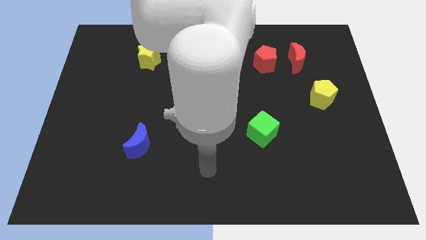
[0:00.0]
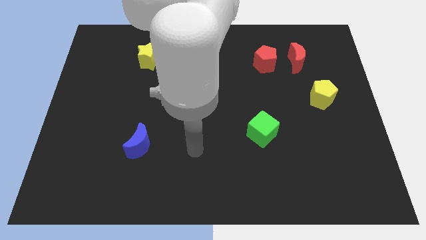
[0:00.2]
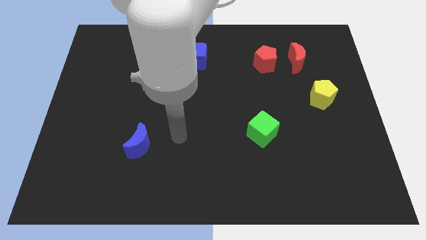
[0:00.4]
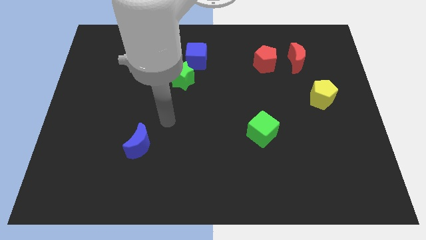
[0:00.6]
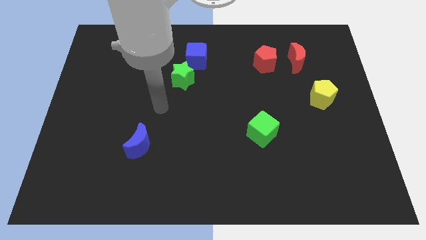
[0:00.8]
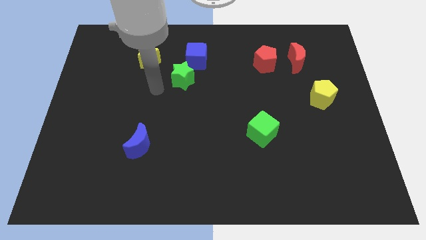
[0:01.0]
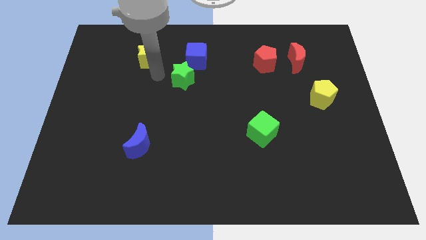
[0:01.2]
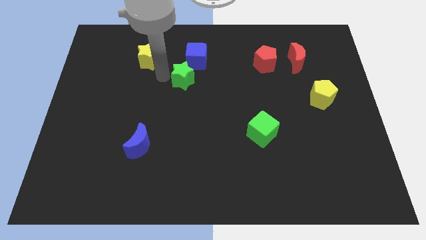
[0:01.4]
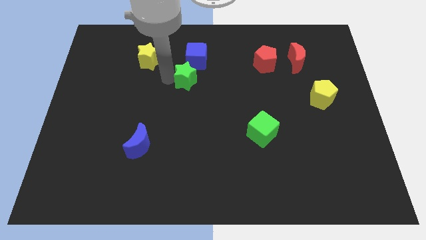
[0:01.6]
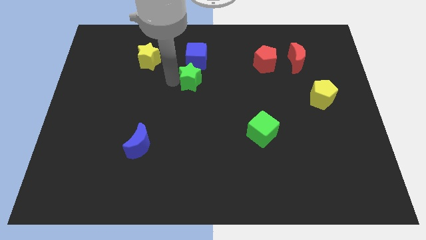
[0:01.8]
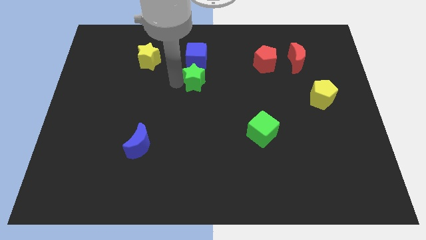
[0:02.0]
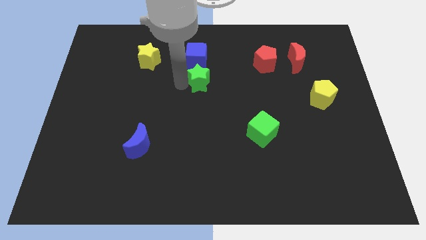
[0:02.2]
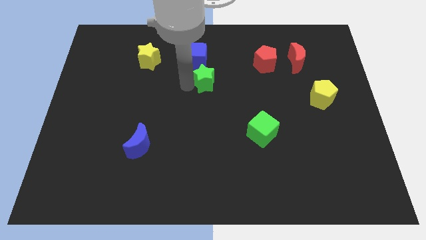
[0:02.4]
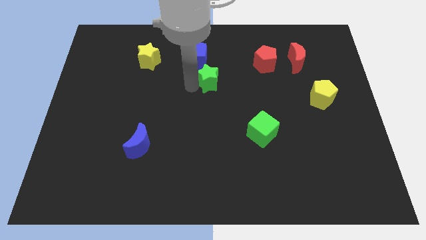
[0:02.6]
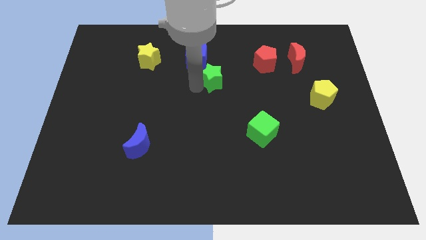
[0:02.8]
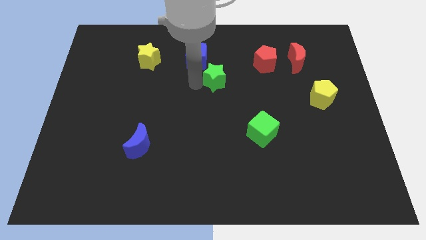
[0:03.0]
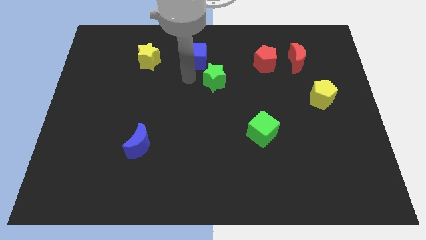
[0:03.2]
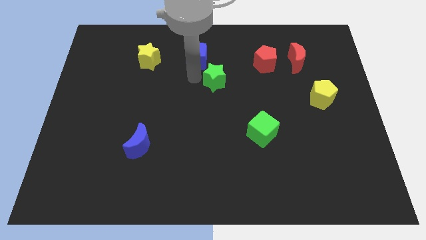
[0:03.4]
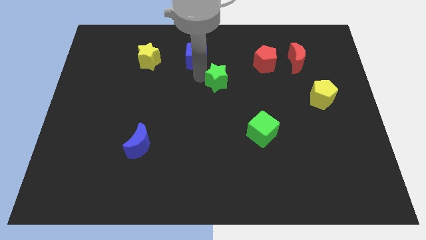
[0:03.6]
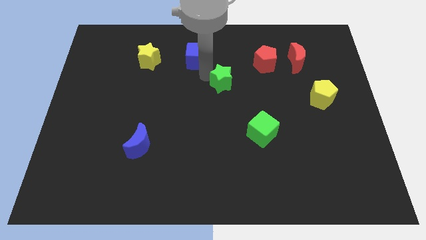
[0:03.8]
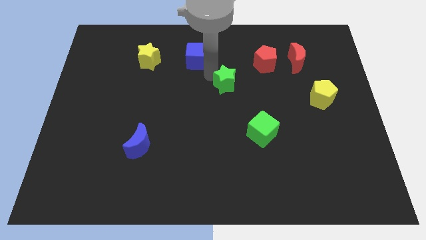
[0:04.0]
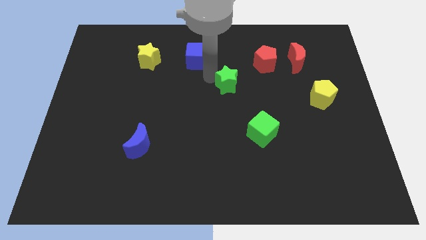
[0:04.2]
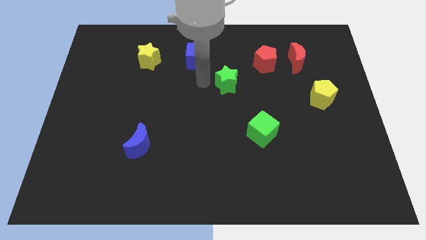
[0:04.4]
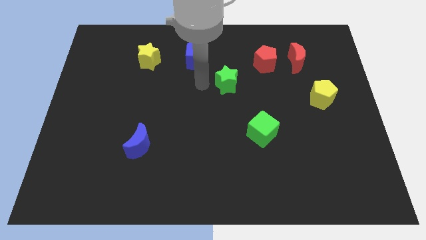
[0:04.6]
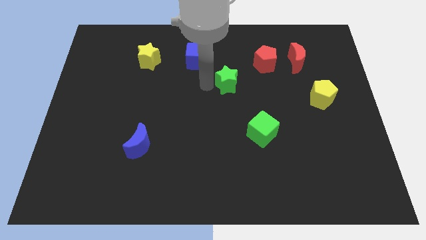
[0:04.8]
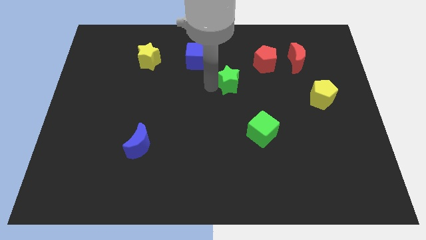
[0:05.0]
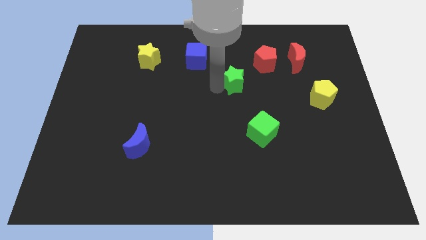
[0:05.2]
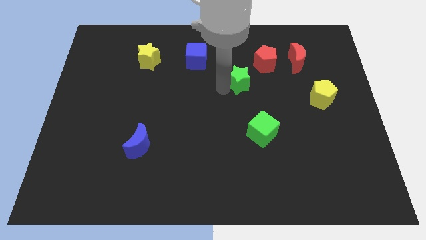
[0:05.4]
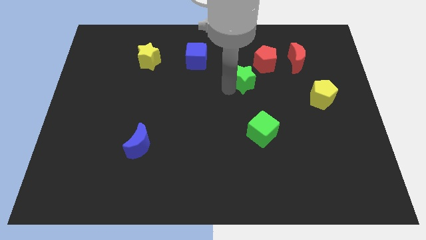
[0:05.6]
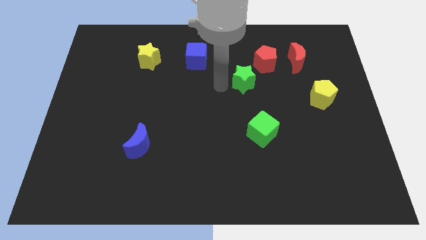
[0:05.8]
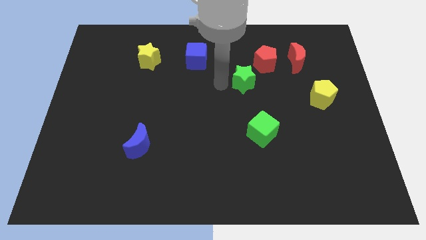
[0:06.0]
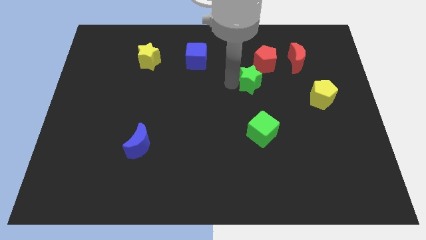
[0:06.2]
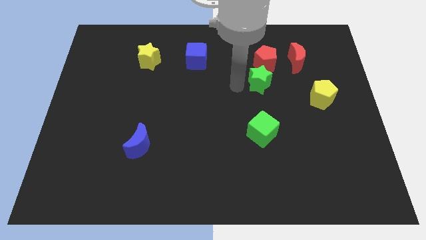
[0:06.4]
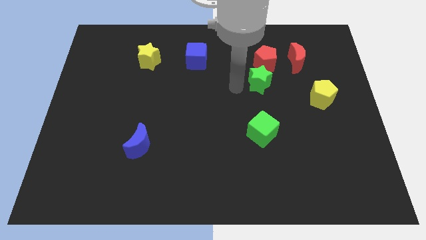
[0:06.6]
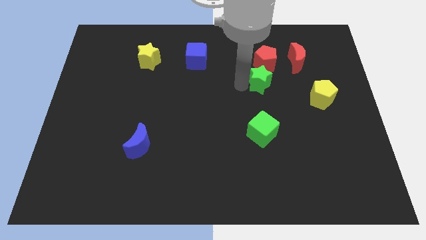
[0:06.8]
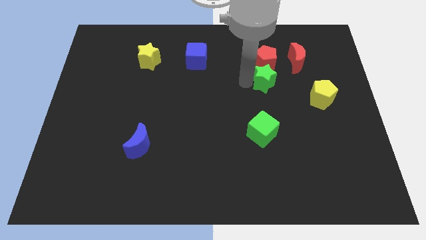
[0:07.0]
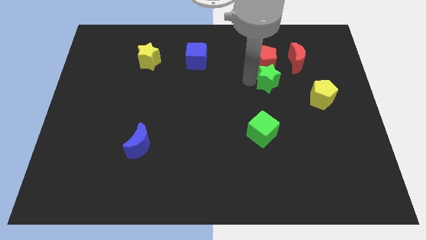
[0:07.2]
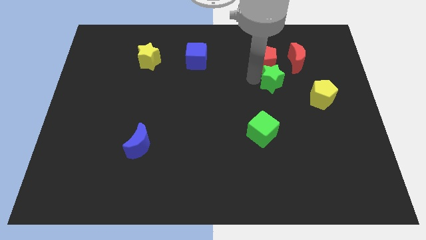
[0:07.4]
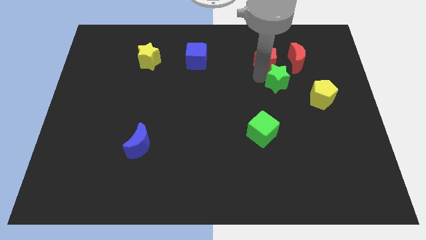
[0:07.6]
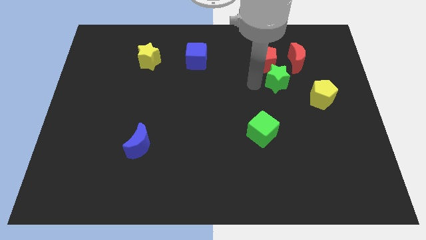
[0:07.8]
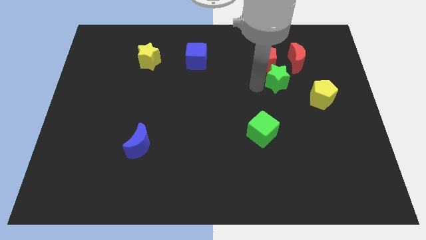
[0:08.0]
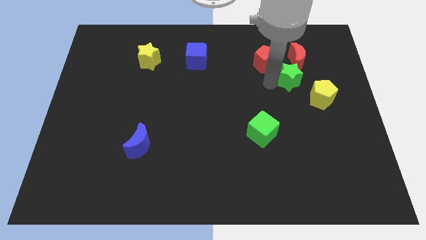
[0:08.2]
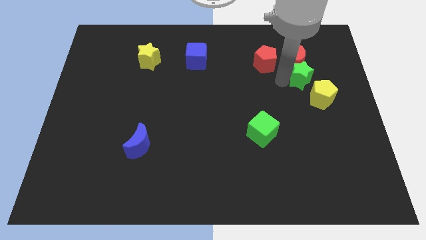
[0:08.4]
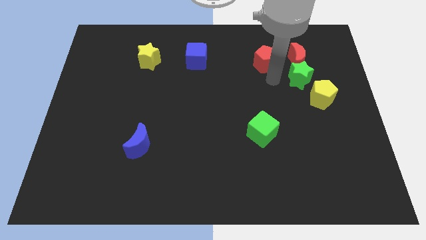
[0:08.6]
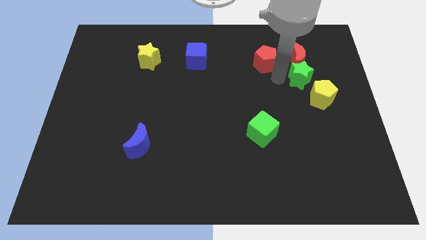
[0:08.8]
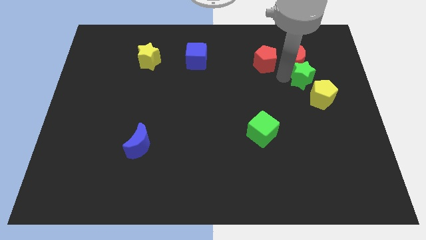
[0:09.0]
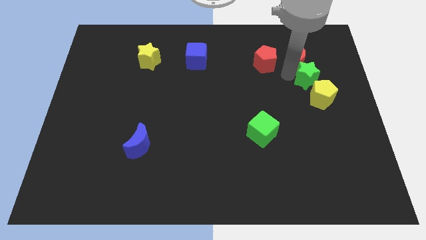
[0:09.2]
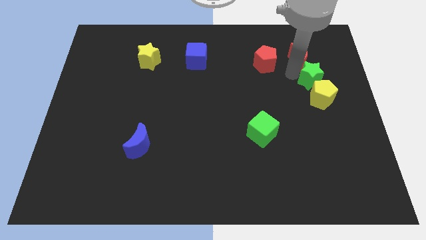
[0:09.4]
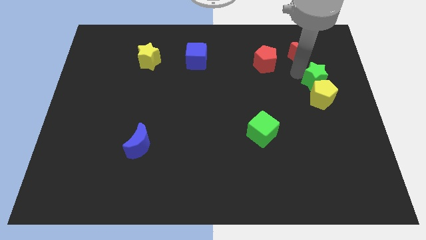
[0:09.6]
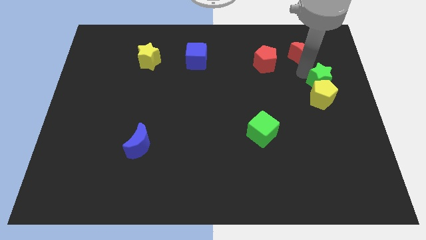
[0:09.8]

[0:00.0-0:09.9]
push the green star to the right side of the board

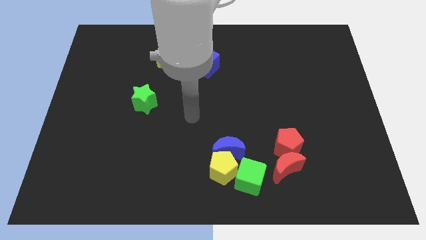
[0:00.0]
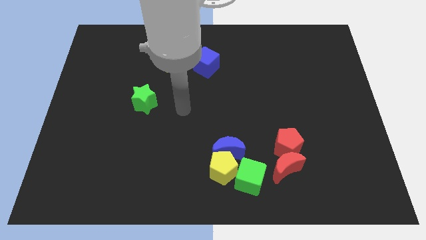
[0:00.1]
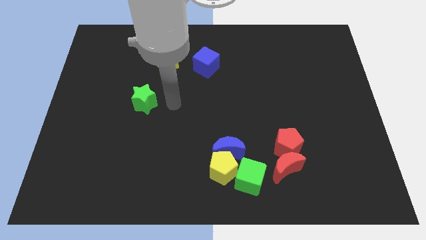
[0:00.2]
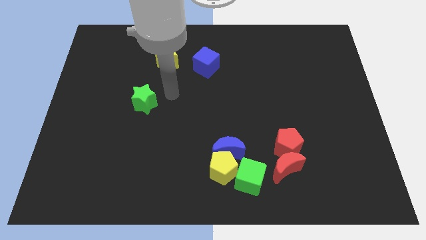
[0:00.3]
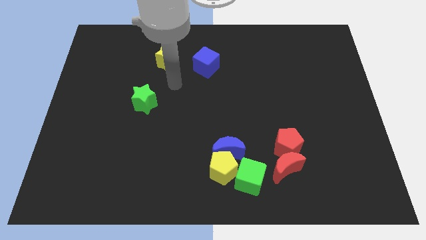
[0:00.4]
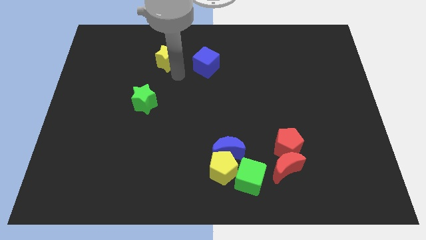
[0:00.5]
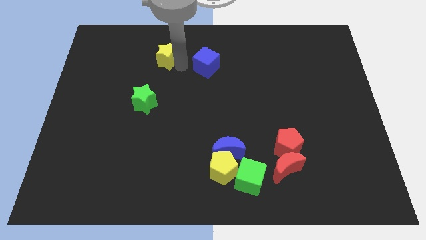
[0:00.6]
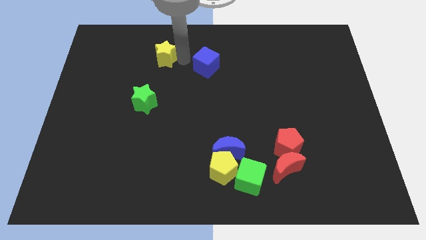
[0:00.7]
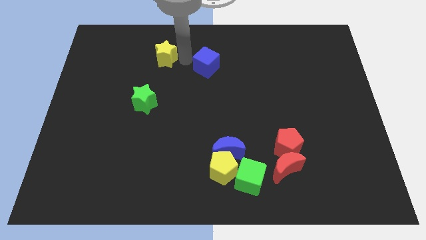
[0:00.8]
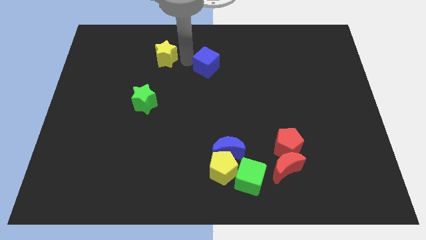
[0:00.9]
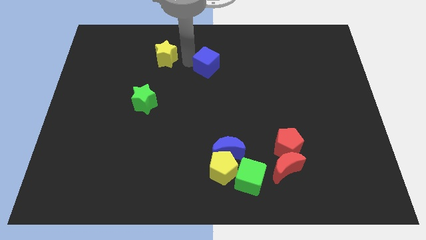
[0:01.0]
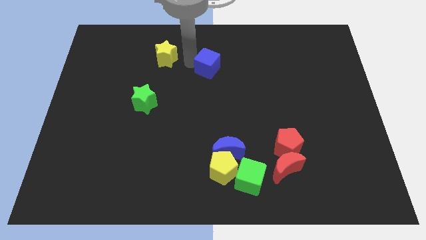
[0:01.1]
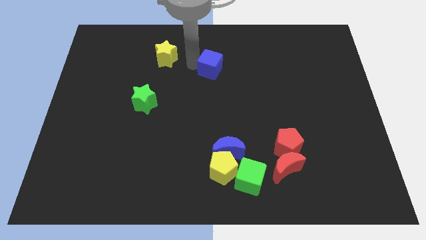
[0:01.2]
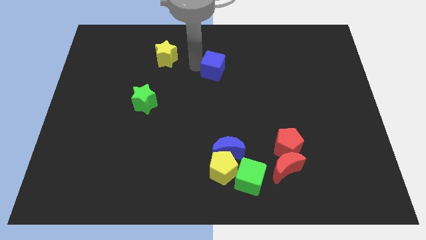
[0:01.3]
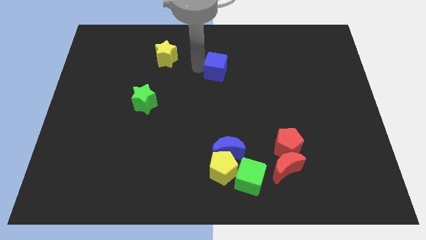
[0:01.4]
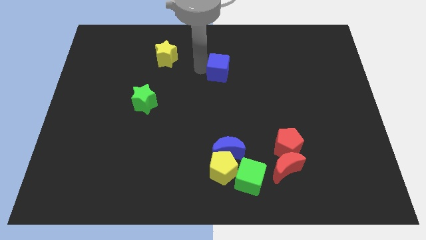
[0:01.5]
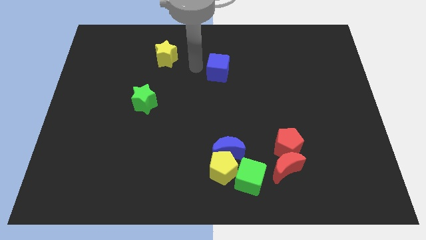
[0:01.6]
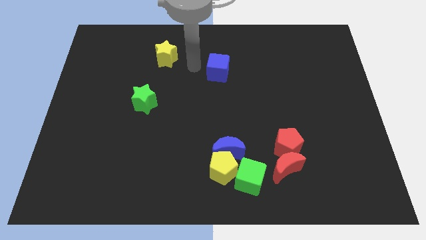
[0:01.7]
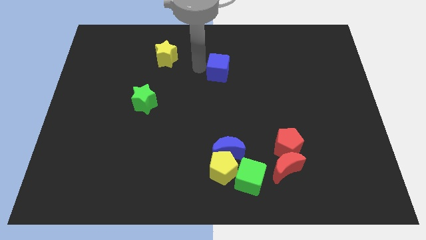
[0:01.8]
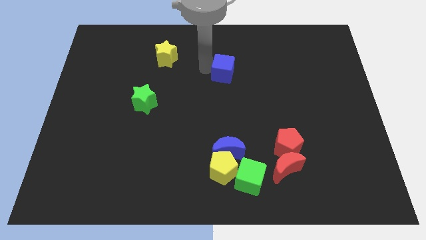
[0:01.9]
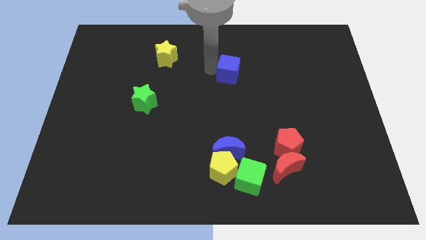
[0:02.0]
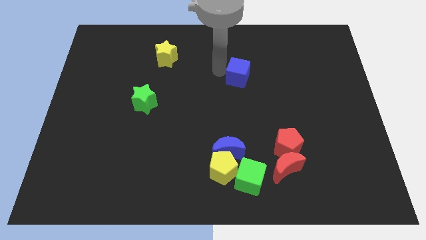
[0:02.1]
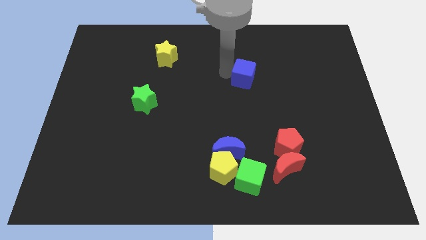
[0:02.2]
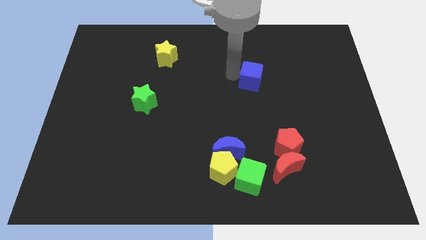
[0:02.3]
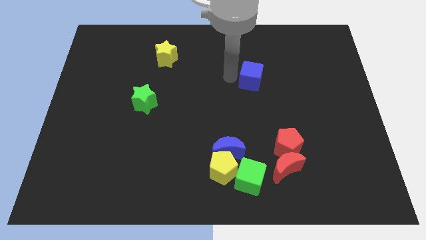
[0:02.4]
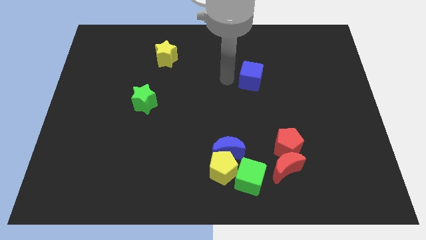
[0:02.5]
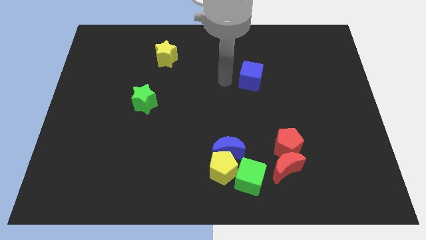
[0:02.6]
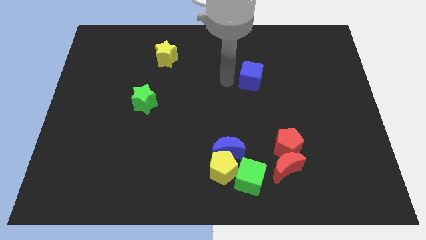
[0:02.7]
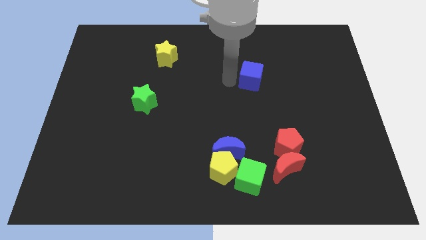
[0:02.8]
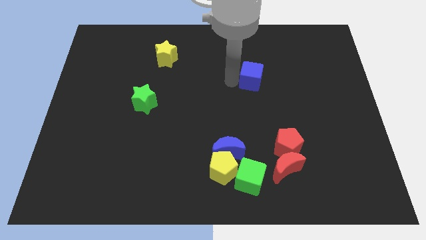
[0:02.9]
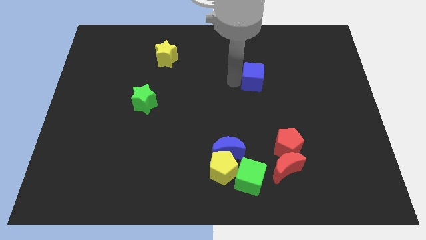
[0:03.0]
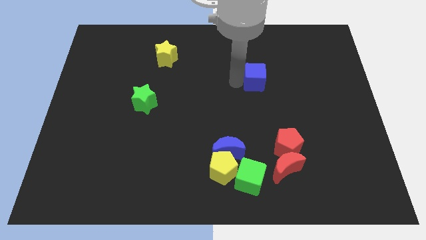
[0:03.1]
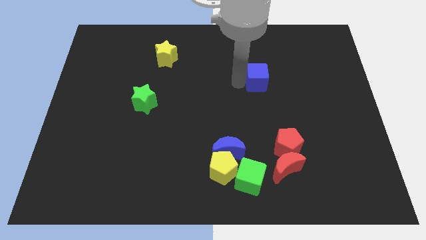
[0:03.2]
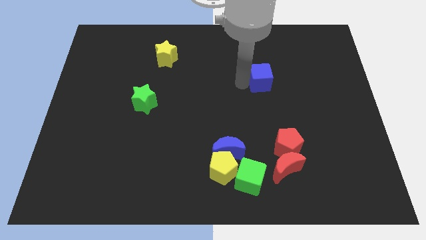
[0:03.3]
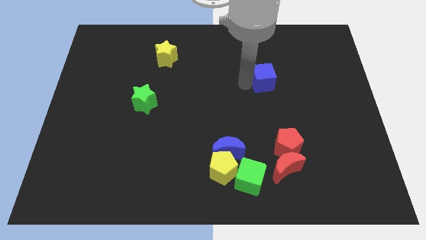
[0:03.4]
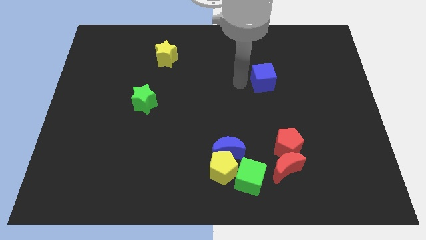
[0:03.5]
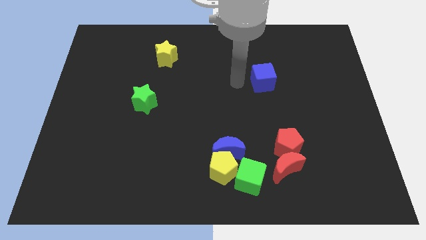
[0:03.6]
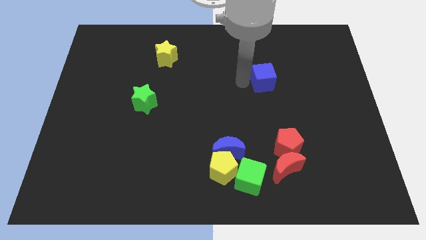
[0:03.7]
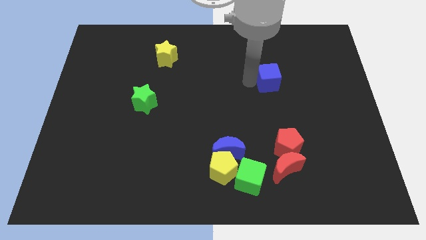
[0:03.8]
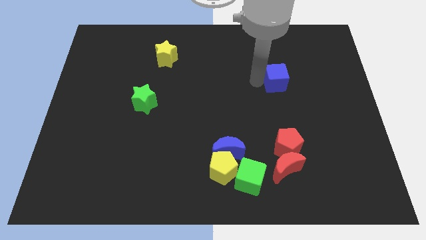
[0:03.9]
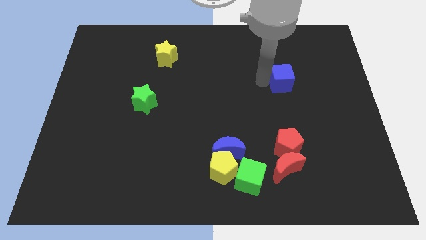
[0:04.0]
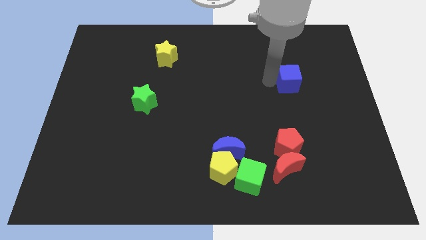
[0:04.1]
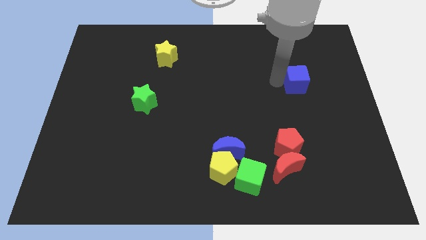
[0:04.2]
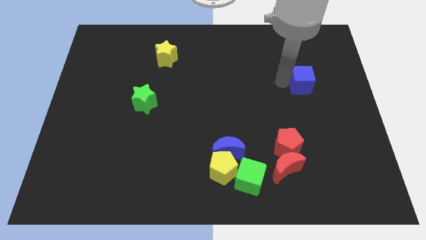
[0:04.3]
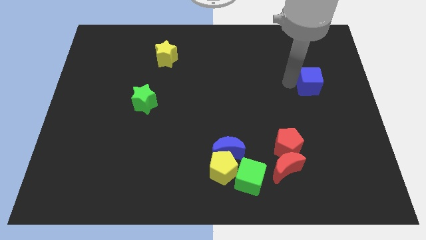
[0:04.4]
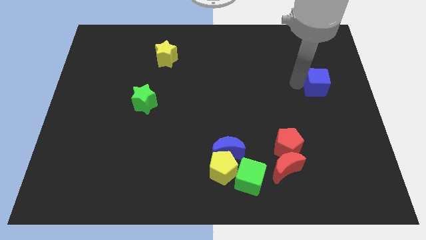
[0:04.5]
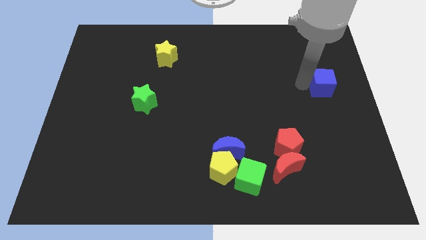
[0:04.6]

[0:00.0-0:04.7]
push the blue cube to the right side
